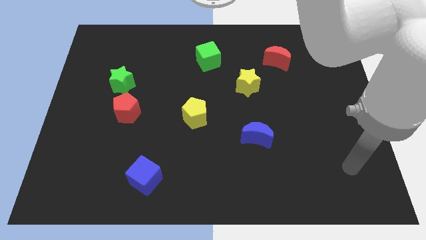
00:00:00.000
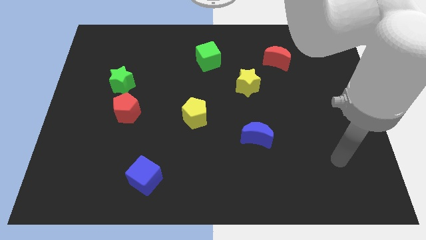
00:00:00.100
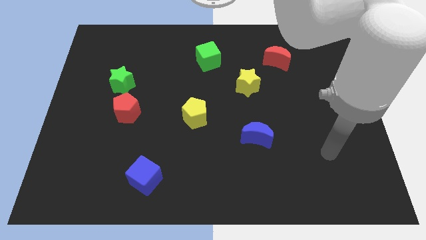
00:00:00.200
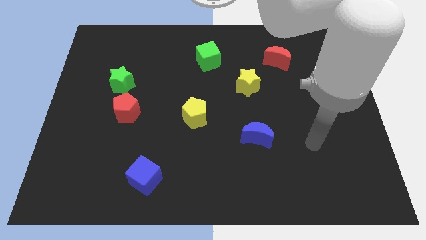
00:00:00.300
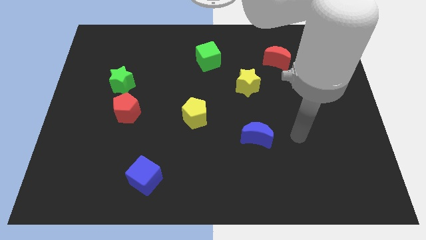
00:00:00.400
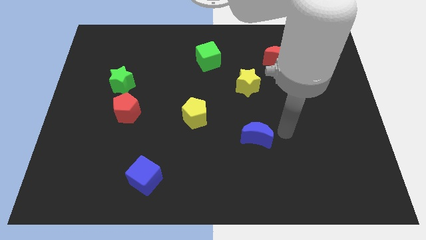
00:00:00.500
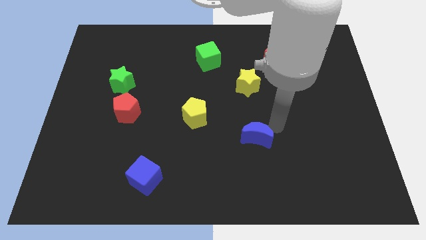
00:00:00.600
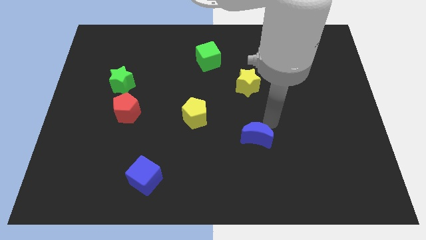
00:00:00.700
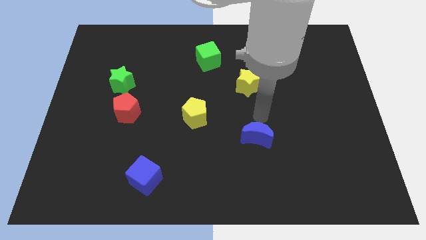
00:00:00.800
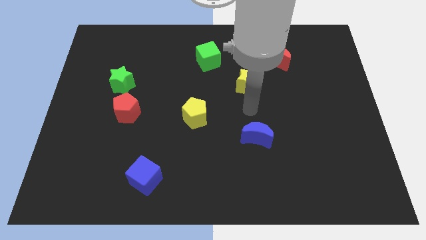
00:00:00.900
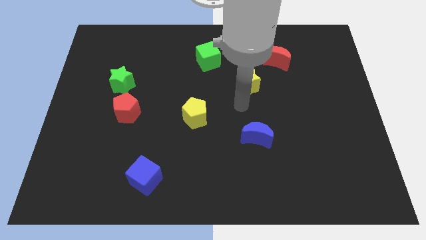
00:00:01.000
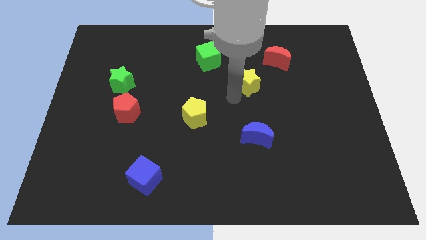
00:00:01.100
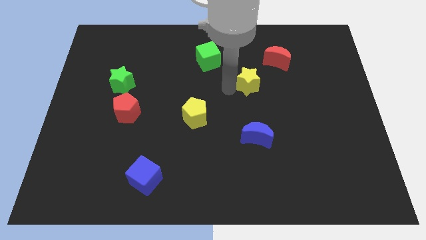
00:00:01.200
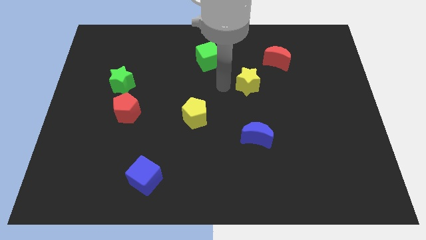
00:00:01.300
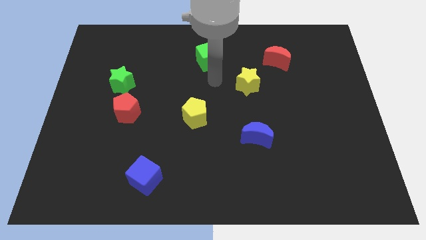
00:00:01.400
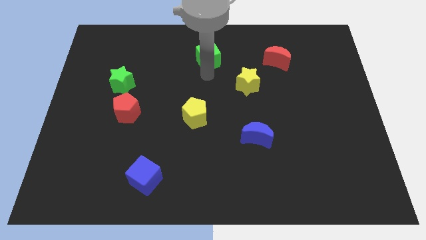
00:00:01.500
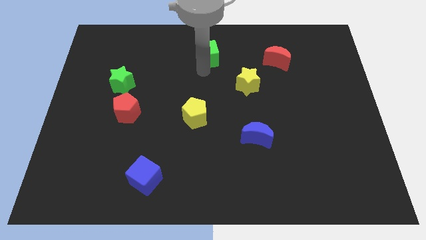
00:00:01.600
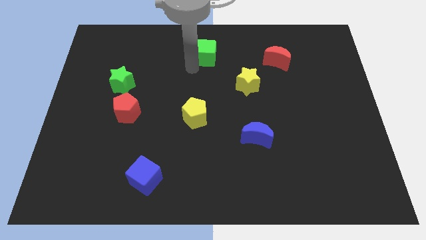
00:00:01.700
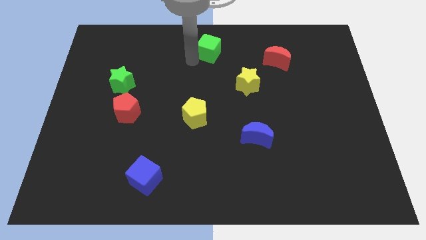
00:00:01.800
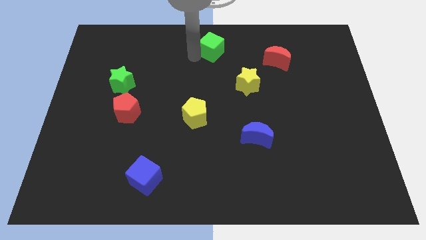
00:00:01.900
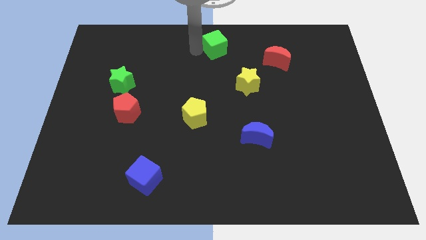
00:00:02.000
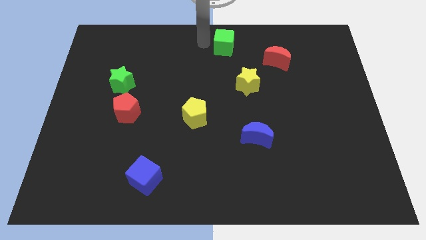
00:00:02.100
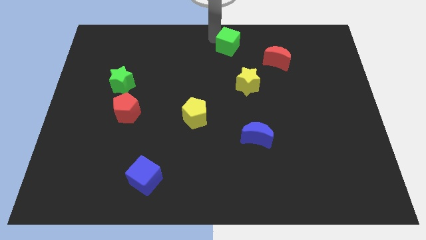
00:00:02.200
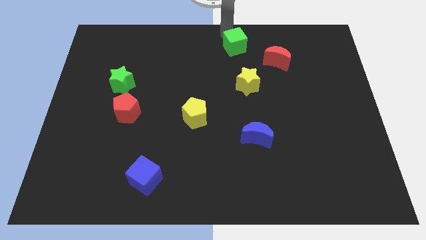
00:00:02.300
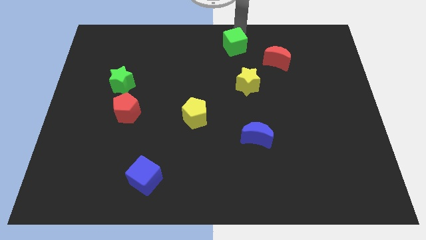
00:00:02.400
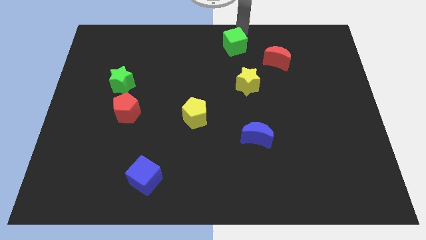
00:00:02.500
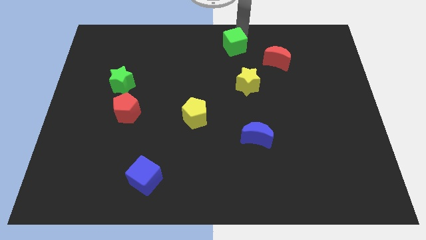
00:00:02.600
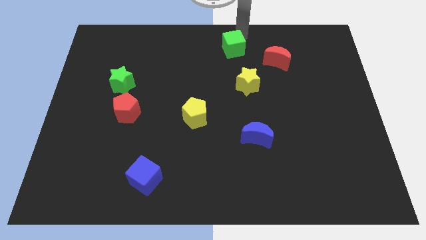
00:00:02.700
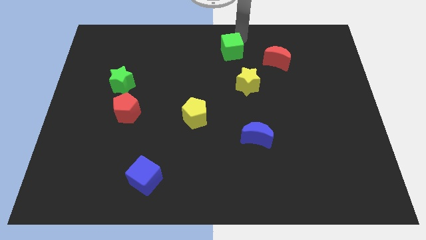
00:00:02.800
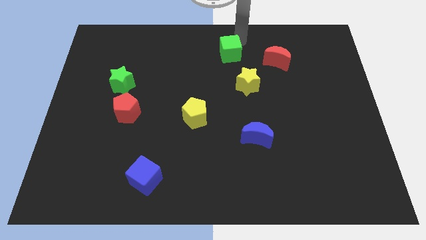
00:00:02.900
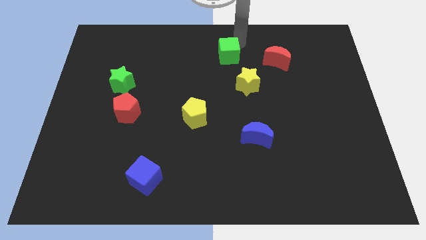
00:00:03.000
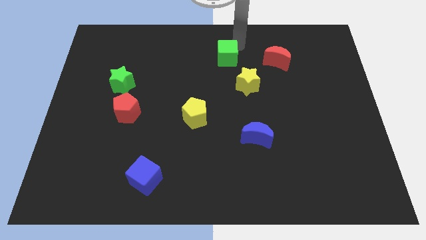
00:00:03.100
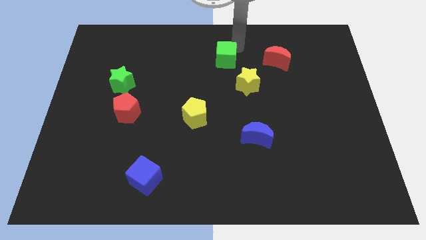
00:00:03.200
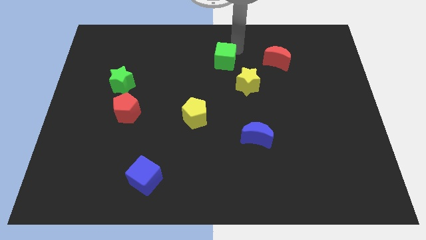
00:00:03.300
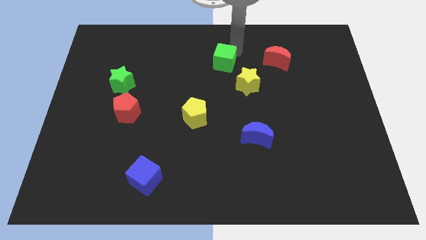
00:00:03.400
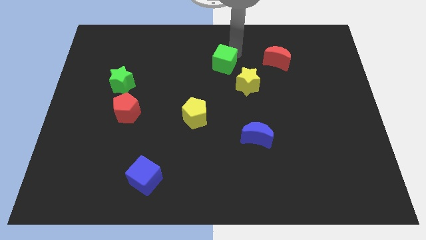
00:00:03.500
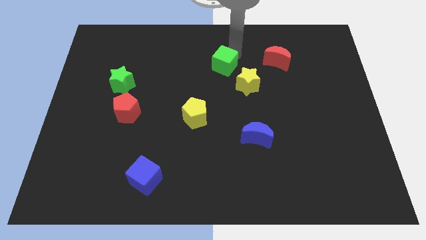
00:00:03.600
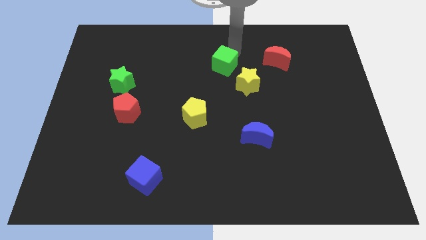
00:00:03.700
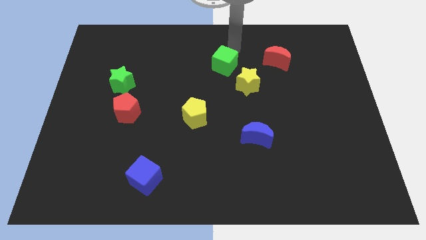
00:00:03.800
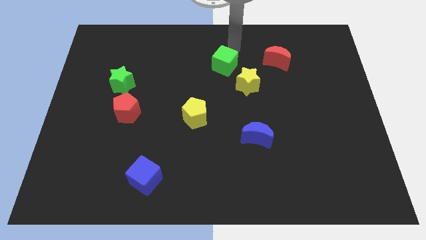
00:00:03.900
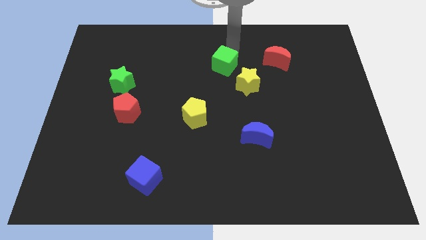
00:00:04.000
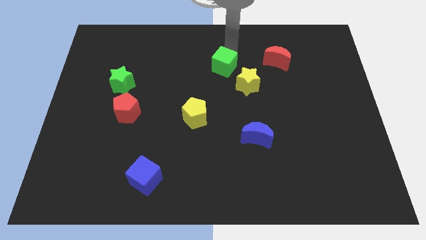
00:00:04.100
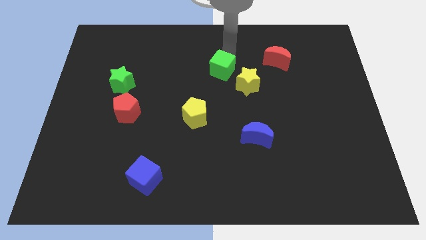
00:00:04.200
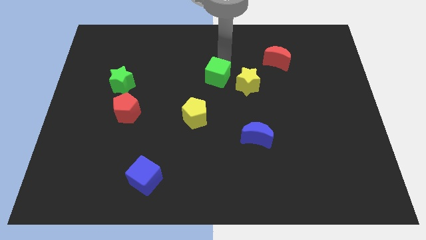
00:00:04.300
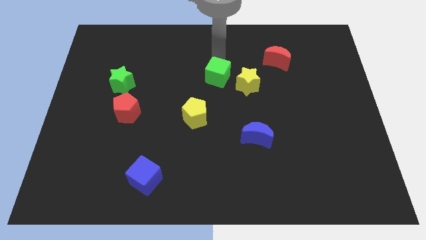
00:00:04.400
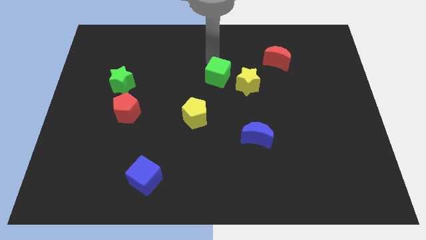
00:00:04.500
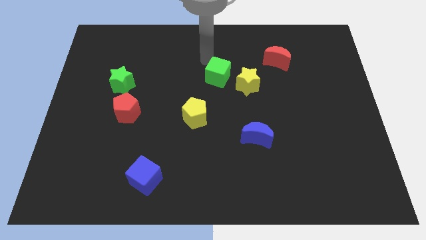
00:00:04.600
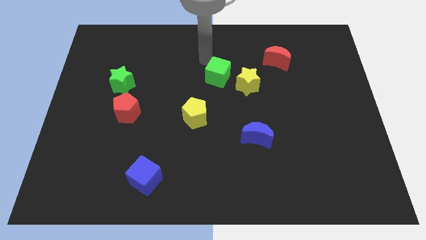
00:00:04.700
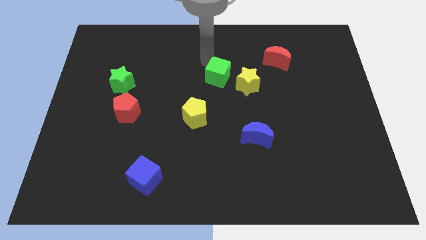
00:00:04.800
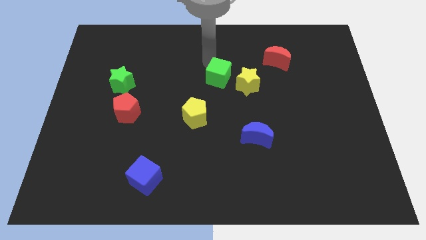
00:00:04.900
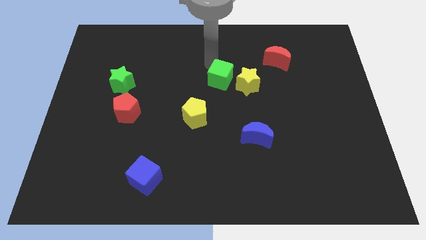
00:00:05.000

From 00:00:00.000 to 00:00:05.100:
slightly move the green cube diagonally downwards and to the right

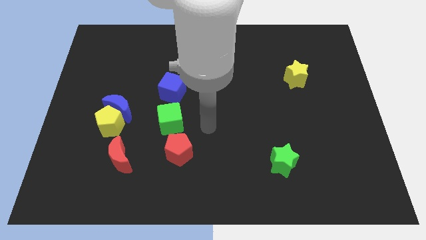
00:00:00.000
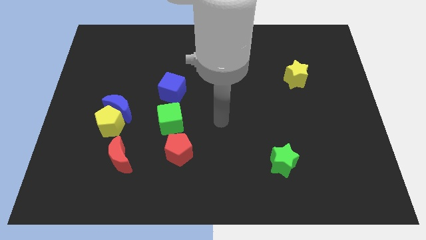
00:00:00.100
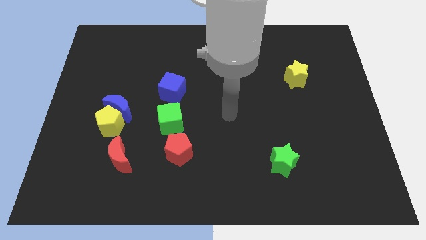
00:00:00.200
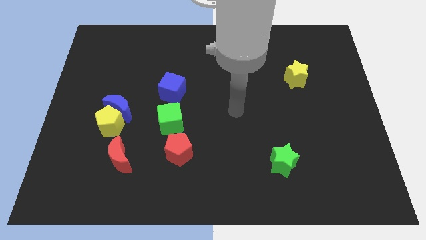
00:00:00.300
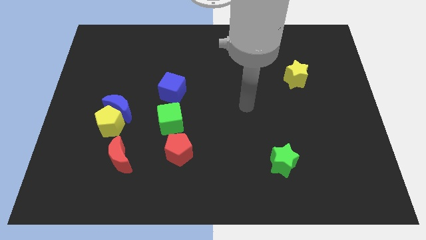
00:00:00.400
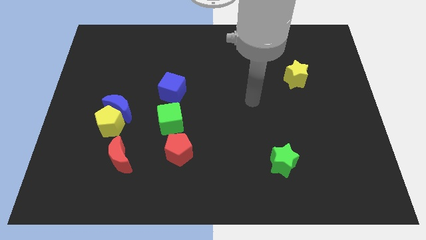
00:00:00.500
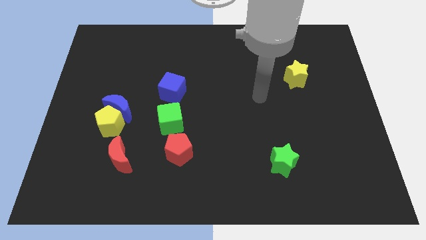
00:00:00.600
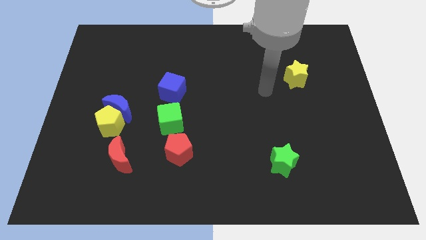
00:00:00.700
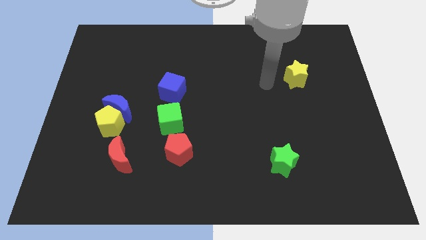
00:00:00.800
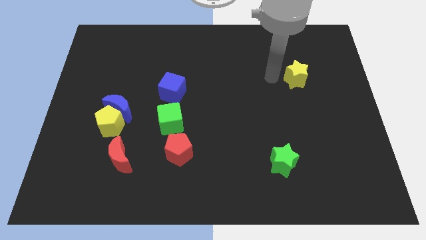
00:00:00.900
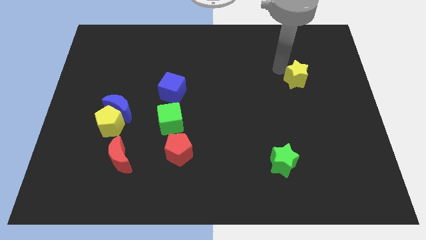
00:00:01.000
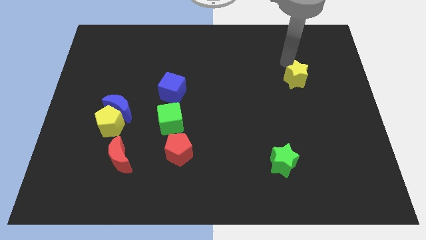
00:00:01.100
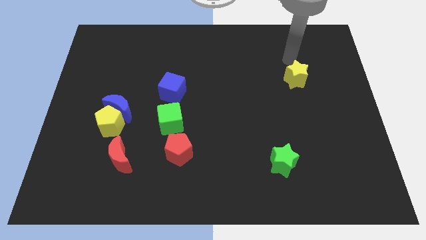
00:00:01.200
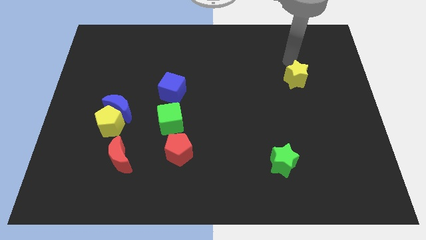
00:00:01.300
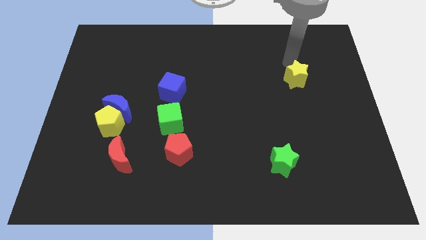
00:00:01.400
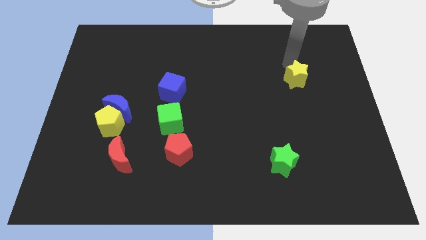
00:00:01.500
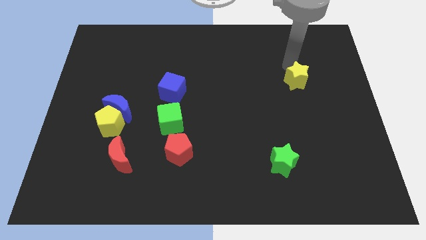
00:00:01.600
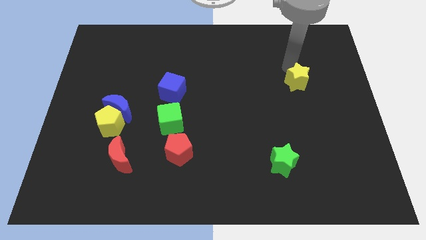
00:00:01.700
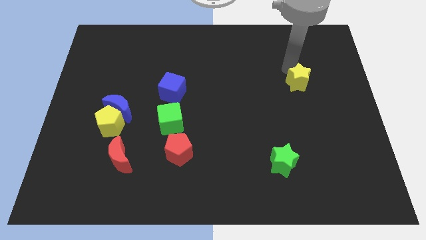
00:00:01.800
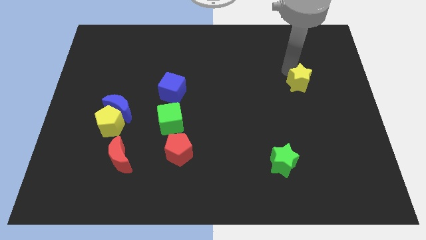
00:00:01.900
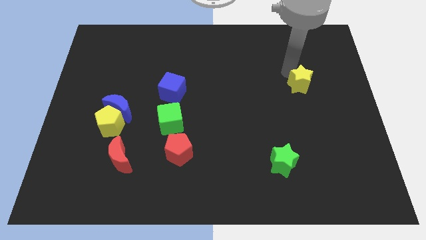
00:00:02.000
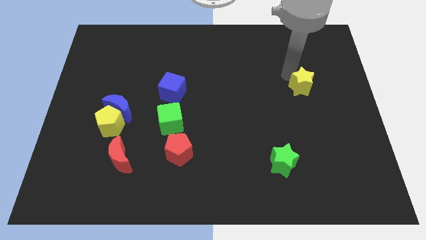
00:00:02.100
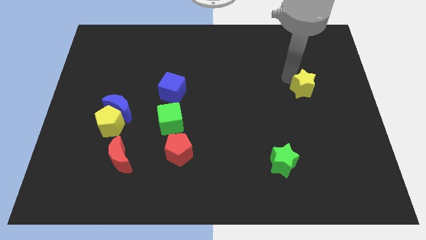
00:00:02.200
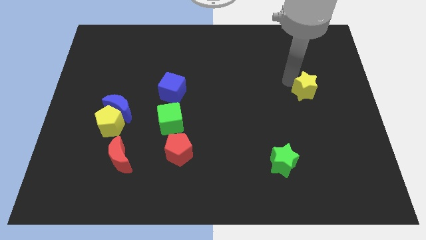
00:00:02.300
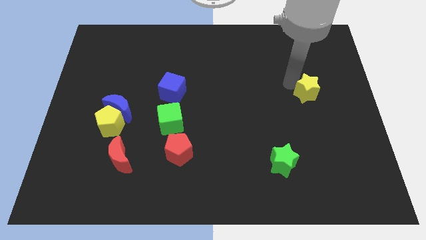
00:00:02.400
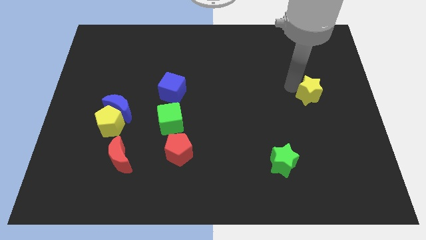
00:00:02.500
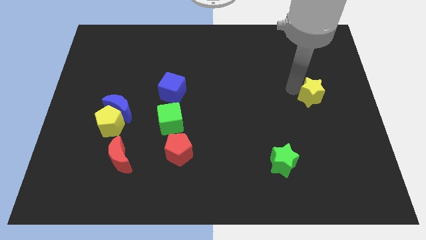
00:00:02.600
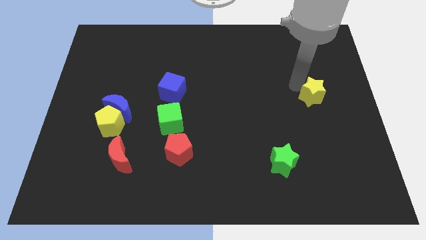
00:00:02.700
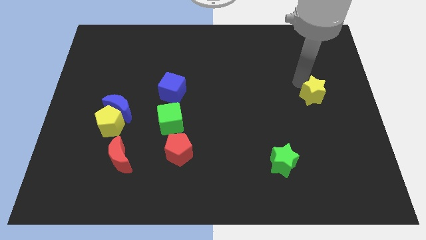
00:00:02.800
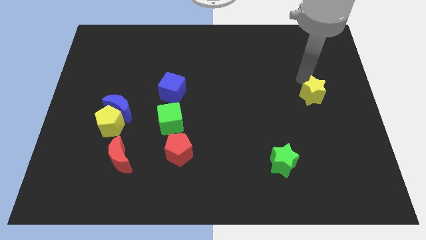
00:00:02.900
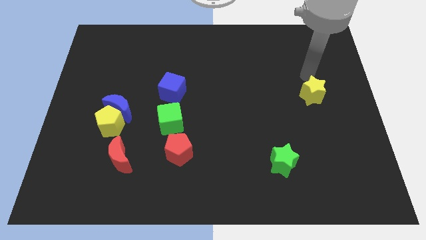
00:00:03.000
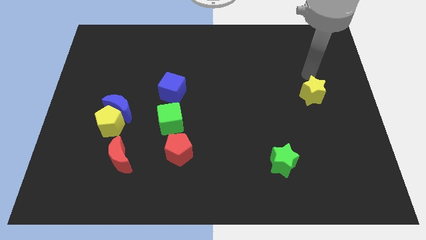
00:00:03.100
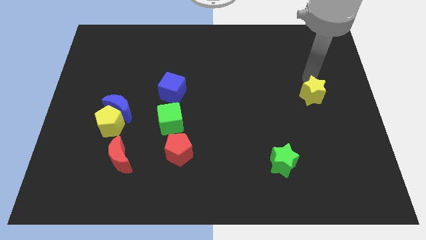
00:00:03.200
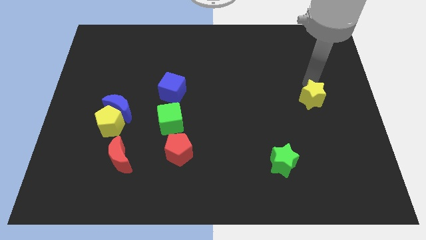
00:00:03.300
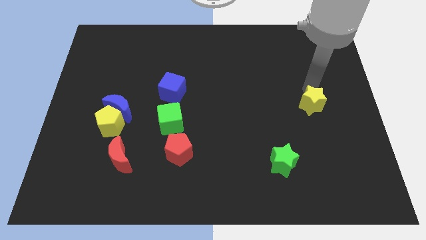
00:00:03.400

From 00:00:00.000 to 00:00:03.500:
slightly move the yellow star down
